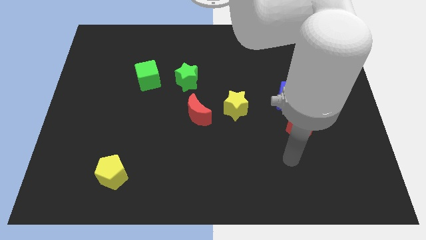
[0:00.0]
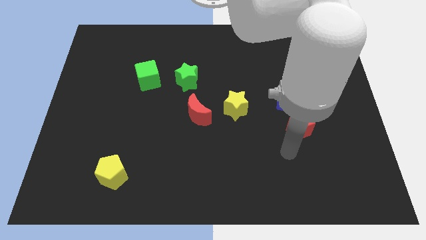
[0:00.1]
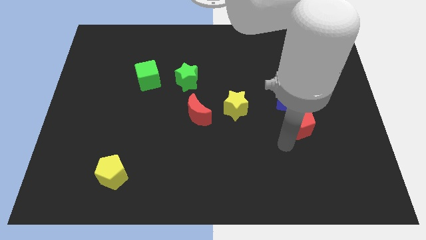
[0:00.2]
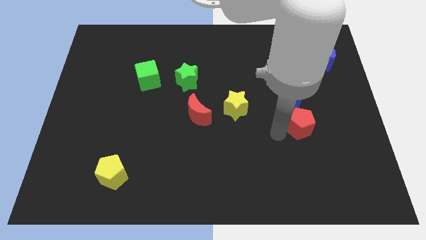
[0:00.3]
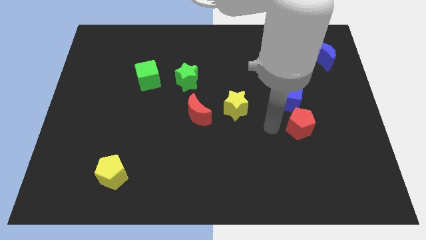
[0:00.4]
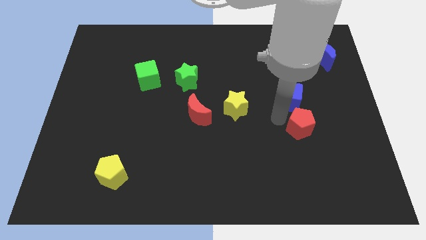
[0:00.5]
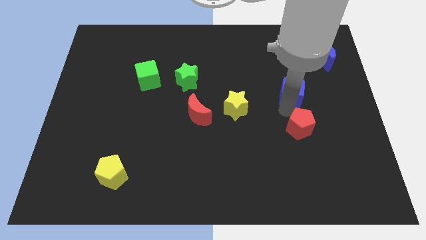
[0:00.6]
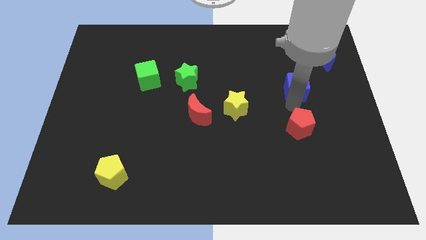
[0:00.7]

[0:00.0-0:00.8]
move the red pentagon away from the blue cube

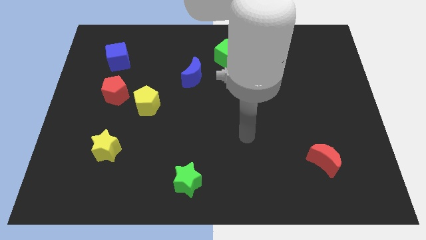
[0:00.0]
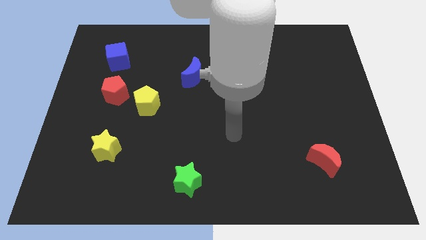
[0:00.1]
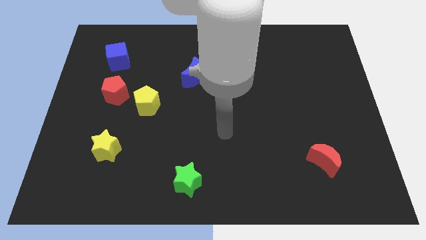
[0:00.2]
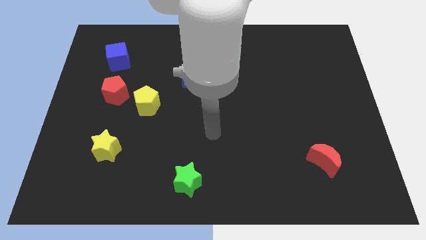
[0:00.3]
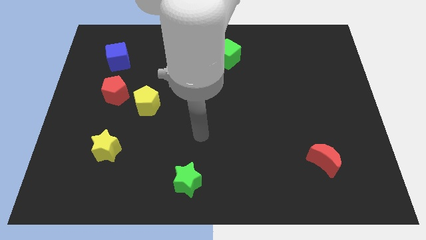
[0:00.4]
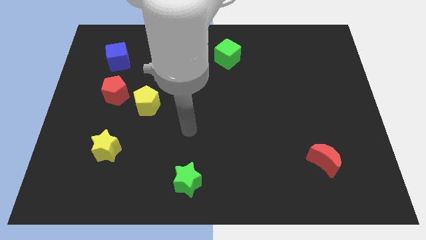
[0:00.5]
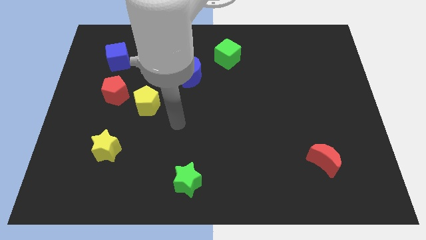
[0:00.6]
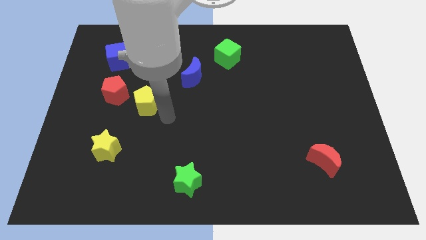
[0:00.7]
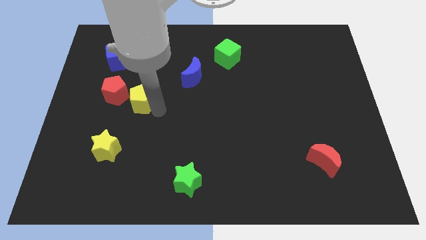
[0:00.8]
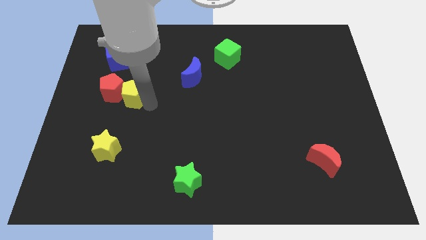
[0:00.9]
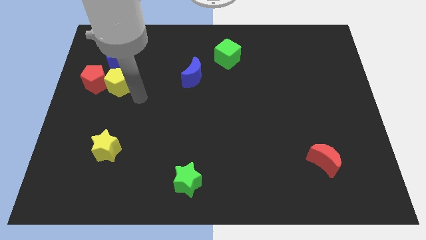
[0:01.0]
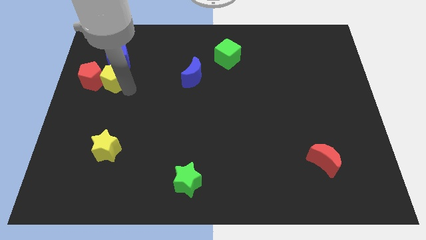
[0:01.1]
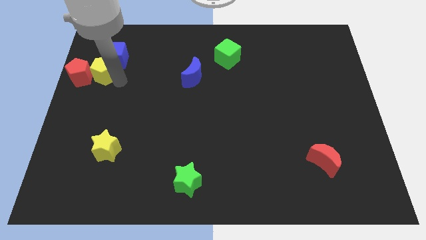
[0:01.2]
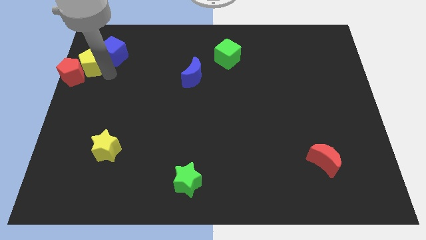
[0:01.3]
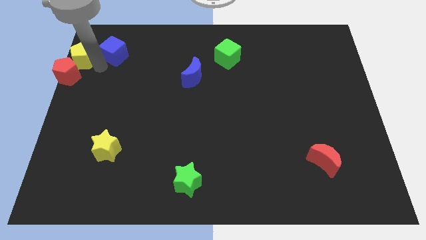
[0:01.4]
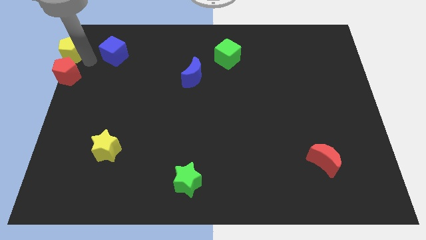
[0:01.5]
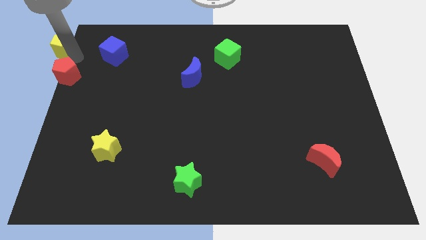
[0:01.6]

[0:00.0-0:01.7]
pull the red pentagon apart from the yellow pentagon

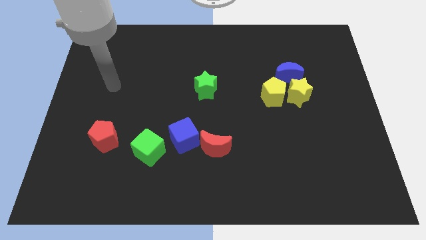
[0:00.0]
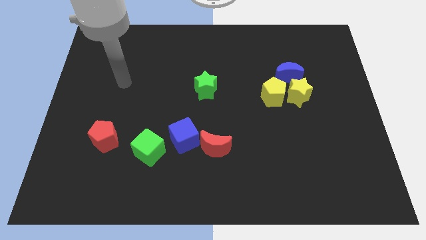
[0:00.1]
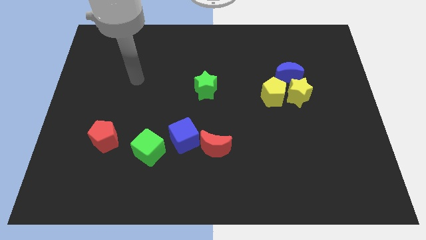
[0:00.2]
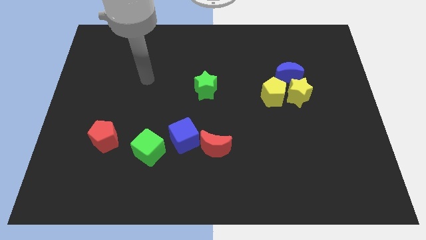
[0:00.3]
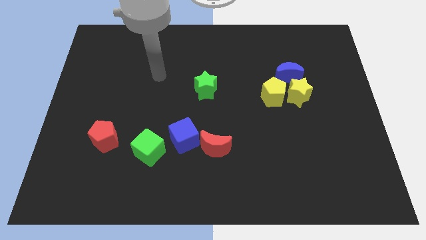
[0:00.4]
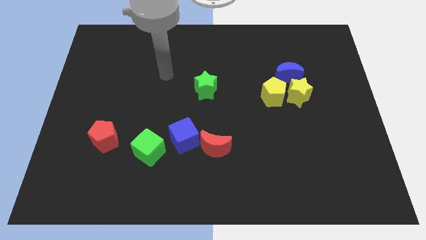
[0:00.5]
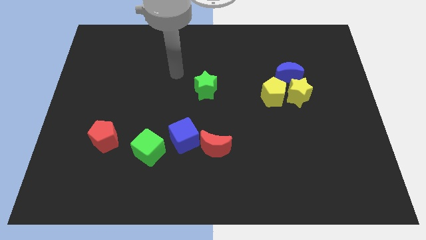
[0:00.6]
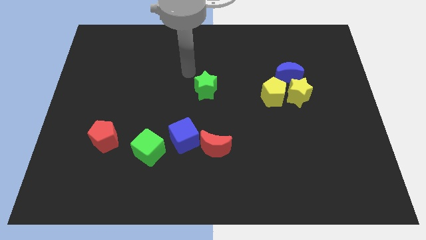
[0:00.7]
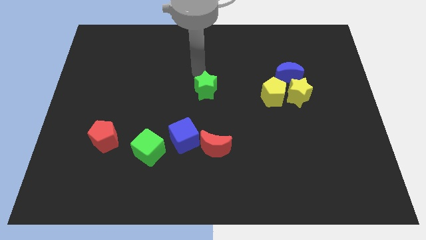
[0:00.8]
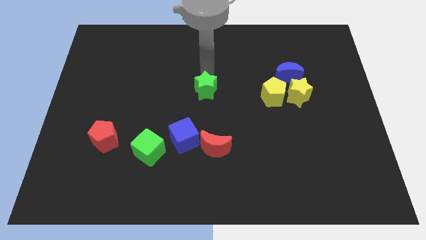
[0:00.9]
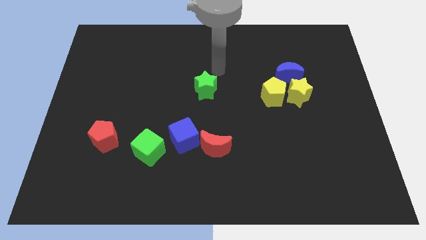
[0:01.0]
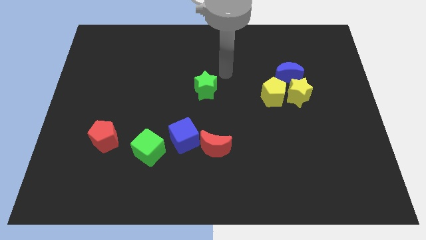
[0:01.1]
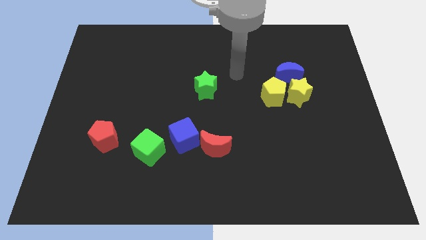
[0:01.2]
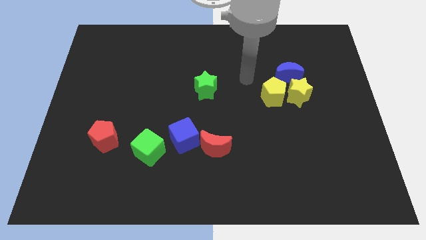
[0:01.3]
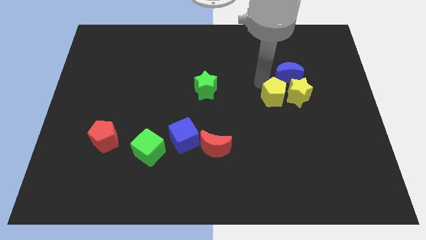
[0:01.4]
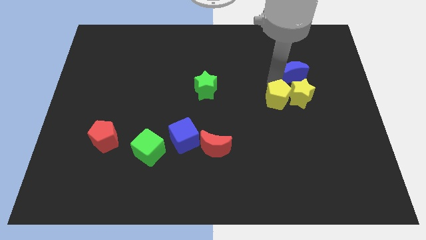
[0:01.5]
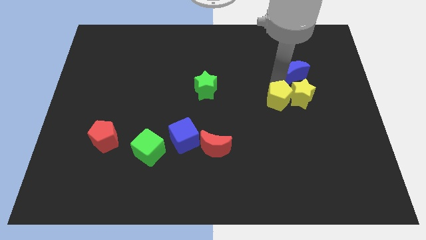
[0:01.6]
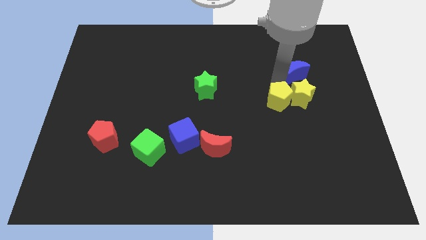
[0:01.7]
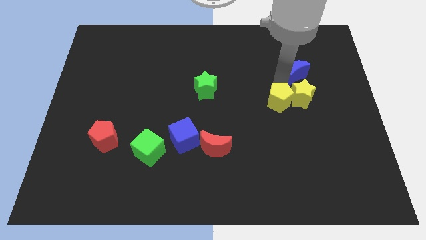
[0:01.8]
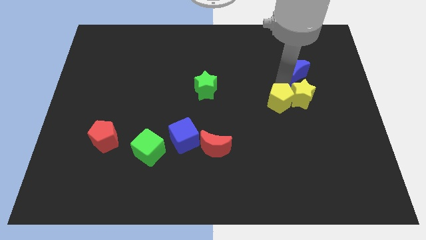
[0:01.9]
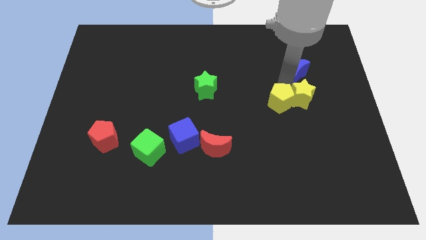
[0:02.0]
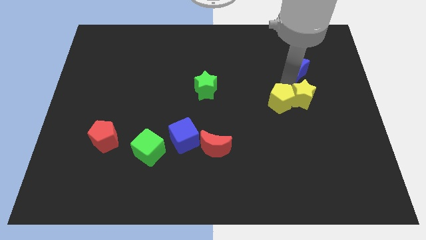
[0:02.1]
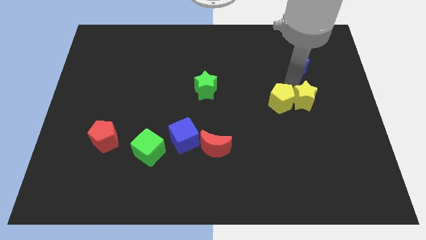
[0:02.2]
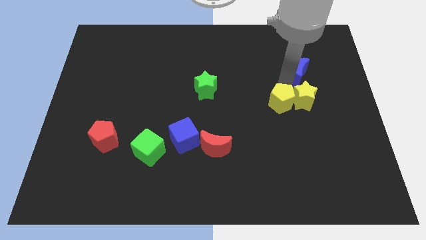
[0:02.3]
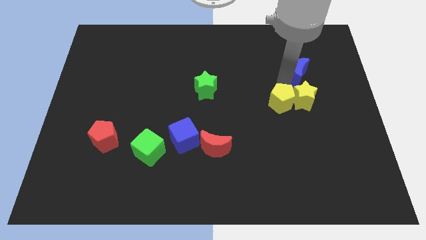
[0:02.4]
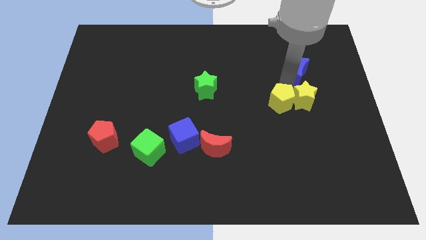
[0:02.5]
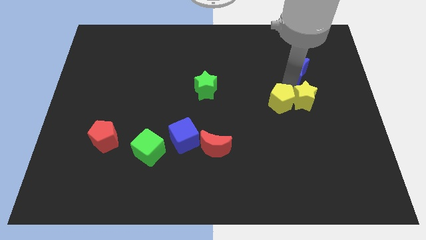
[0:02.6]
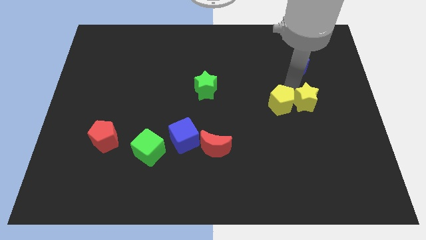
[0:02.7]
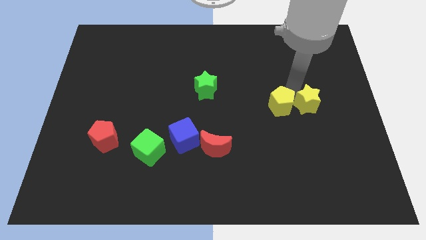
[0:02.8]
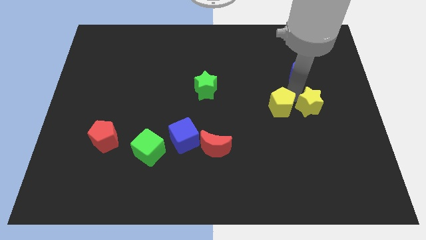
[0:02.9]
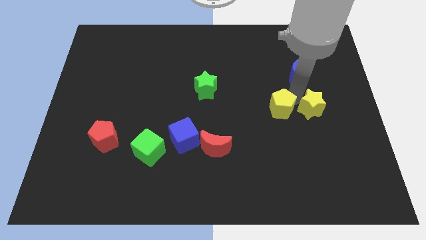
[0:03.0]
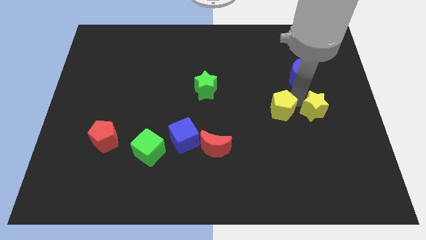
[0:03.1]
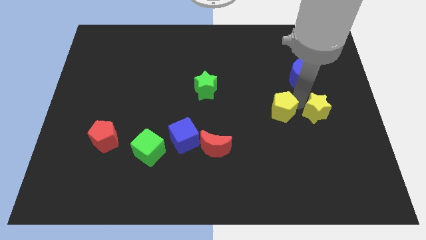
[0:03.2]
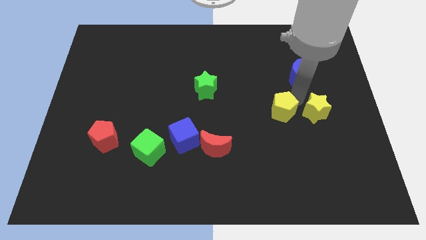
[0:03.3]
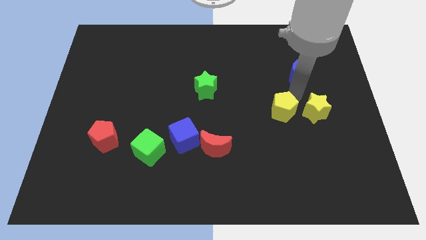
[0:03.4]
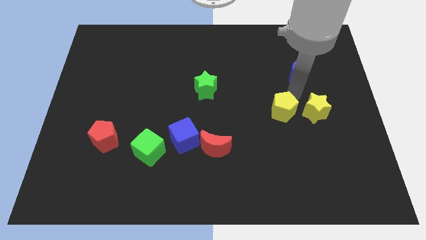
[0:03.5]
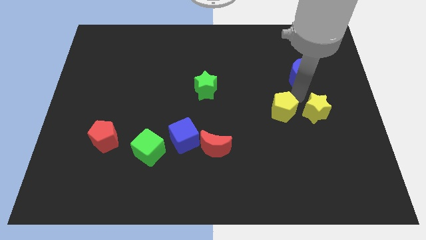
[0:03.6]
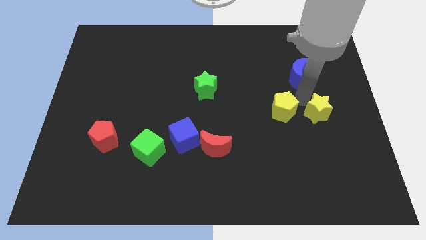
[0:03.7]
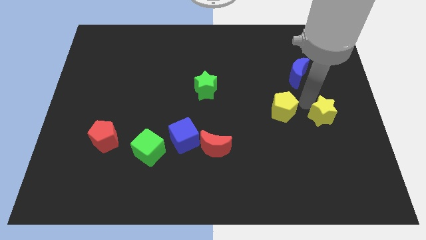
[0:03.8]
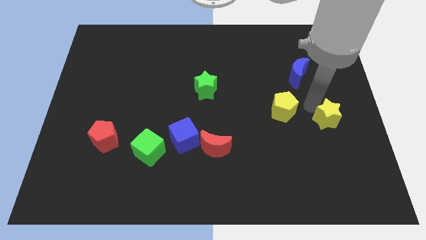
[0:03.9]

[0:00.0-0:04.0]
separate the yellow star from the yellow pentagon and blue moon

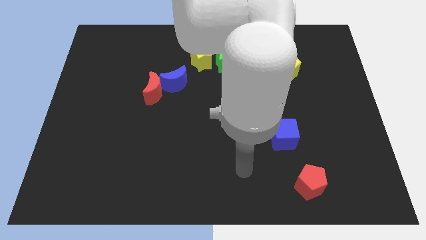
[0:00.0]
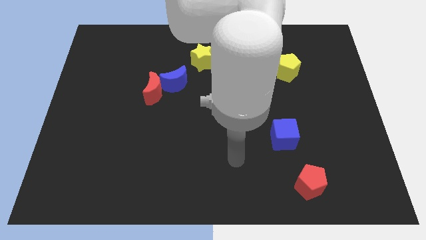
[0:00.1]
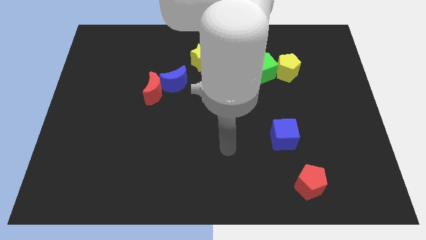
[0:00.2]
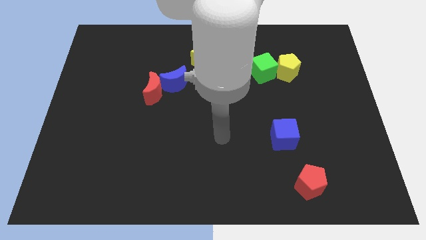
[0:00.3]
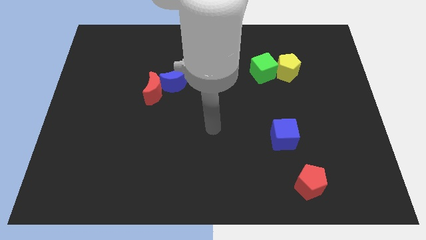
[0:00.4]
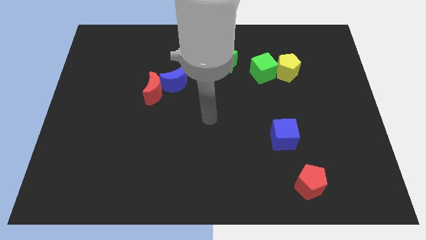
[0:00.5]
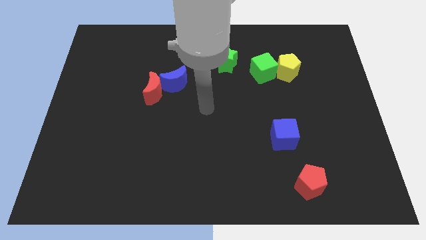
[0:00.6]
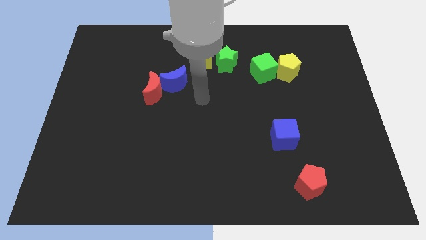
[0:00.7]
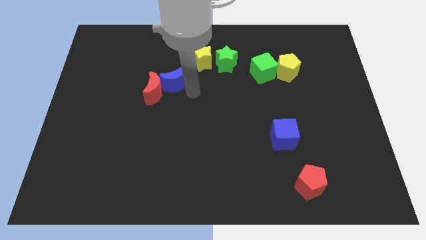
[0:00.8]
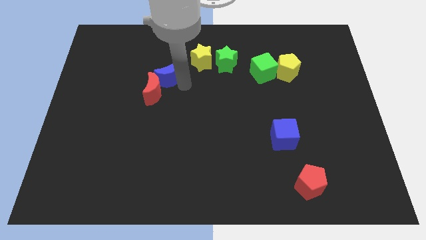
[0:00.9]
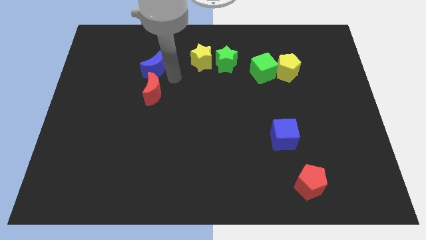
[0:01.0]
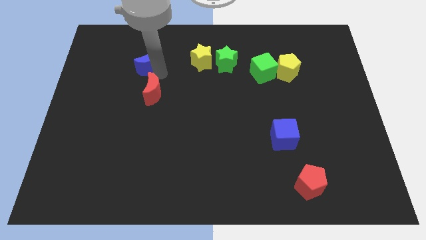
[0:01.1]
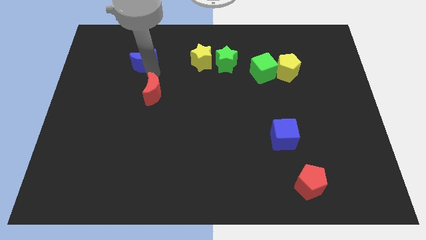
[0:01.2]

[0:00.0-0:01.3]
move the red moon away from the blue moon

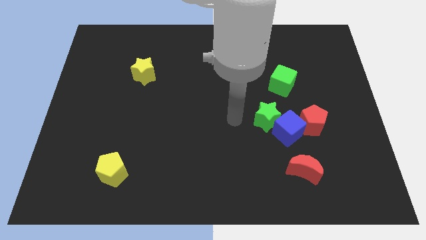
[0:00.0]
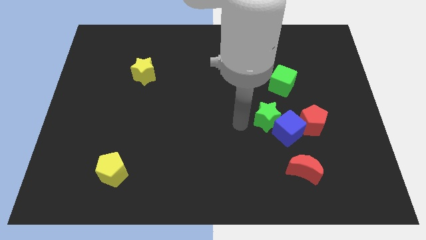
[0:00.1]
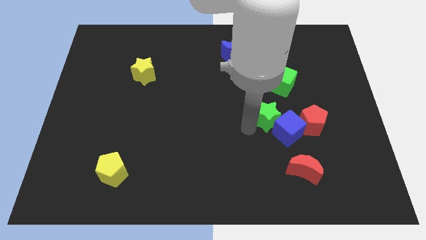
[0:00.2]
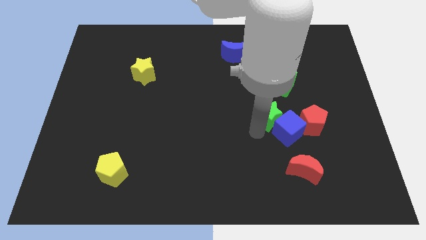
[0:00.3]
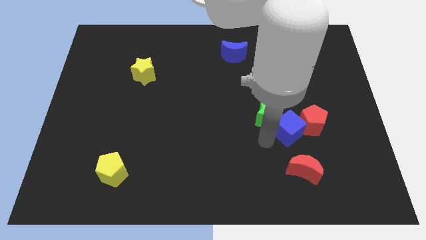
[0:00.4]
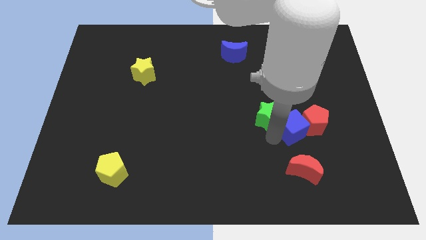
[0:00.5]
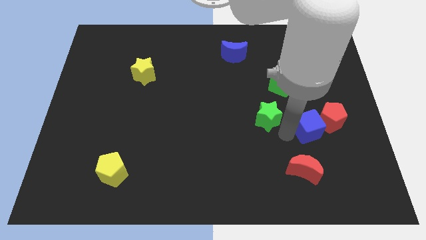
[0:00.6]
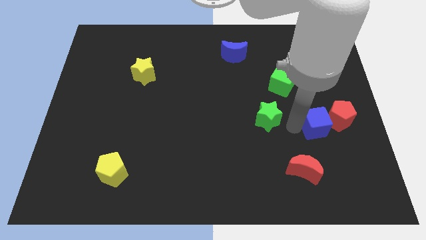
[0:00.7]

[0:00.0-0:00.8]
pull the green star apart from the blue cube

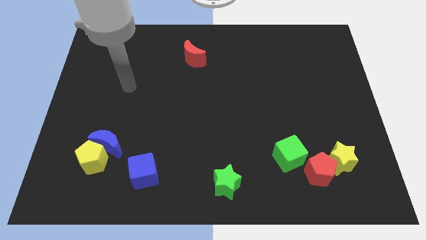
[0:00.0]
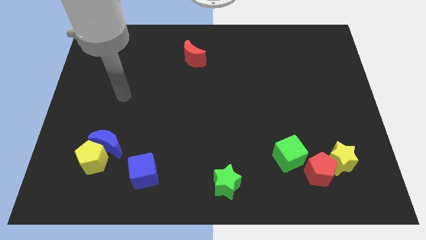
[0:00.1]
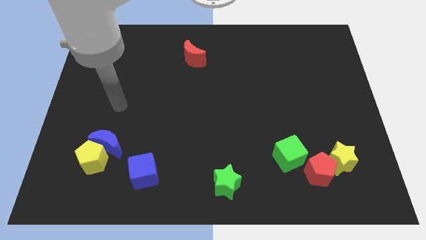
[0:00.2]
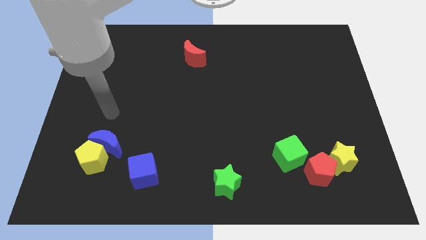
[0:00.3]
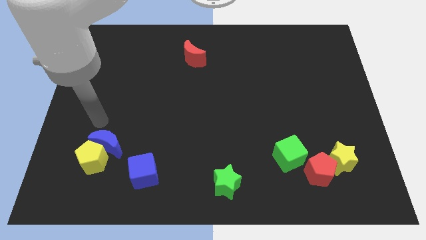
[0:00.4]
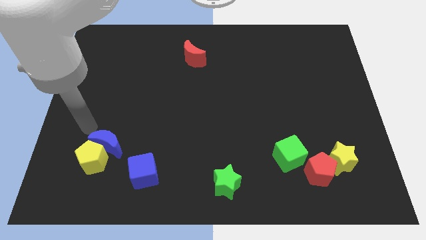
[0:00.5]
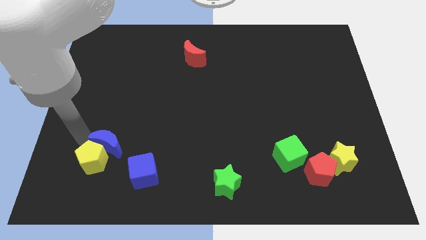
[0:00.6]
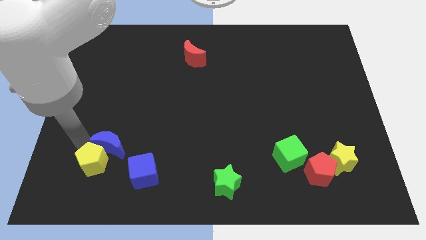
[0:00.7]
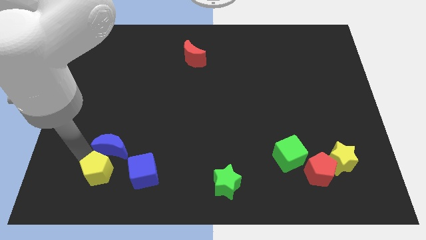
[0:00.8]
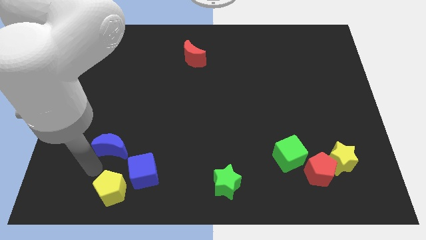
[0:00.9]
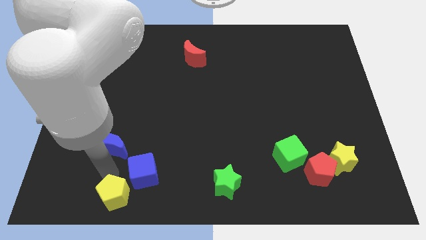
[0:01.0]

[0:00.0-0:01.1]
separate the blue moon from the yellow pentagon
